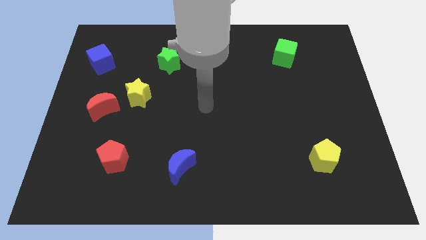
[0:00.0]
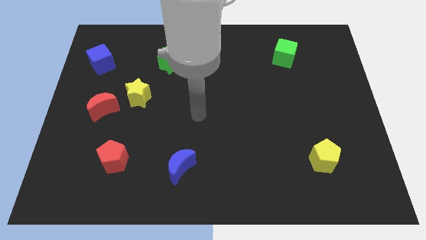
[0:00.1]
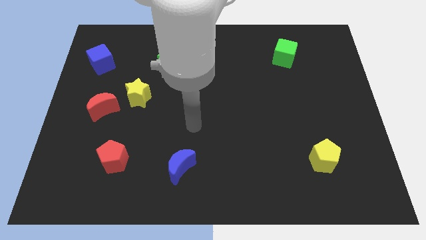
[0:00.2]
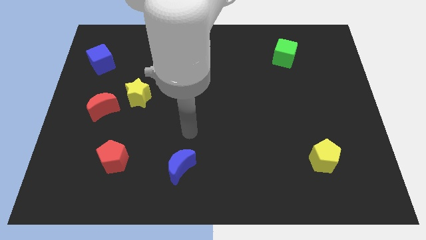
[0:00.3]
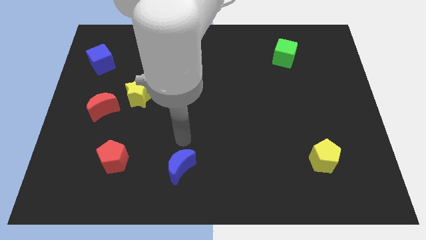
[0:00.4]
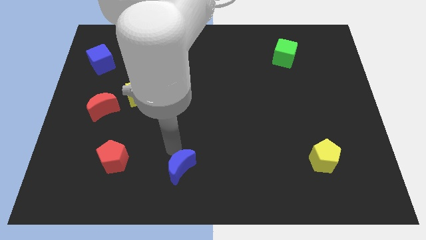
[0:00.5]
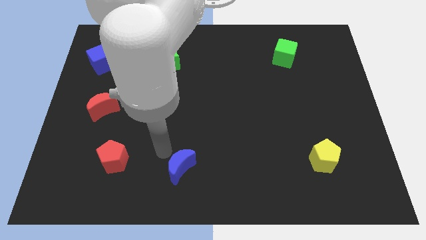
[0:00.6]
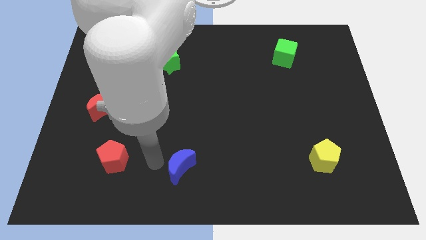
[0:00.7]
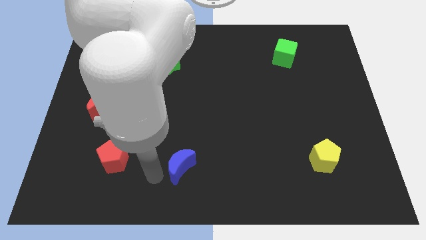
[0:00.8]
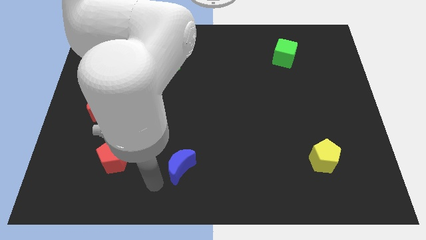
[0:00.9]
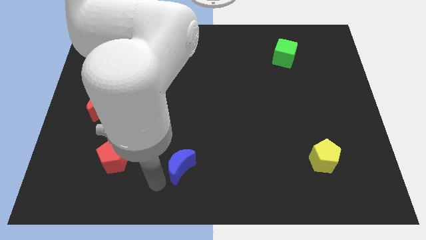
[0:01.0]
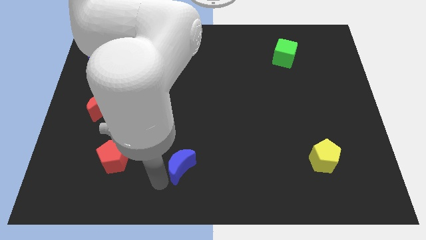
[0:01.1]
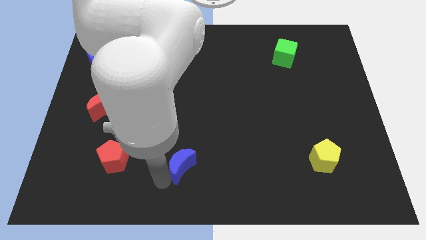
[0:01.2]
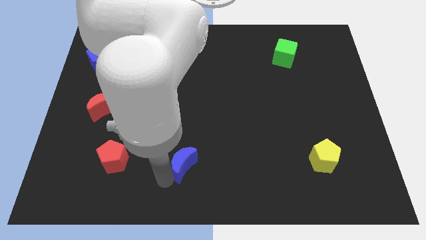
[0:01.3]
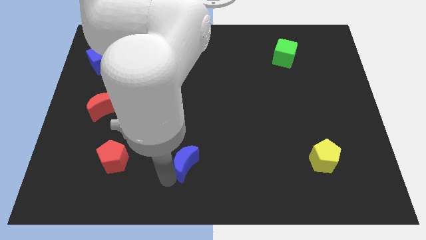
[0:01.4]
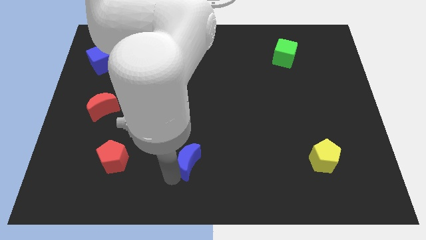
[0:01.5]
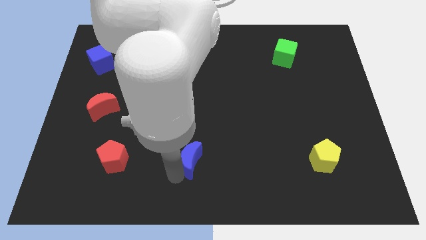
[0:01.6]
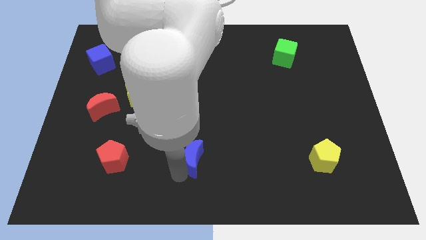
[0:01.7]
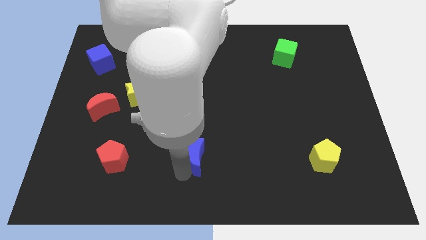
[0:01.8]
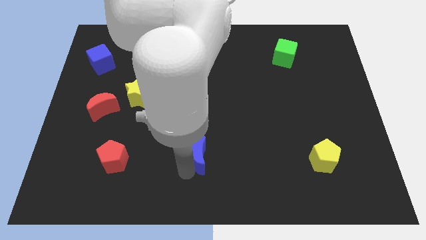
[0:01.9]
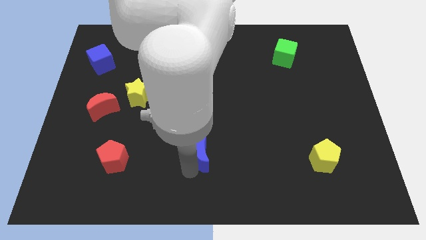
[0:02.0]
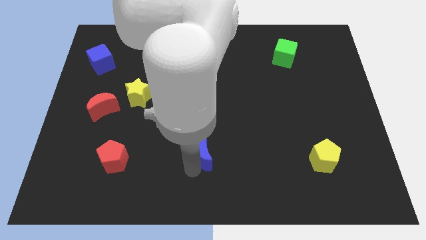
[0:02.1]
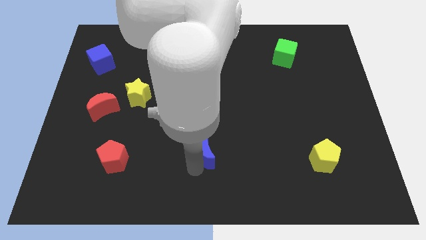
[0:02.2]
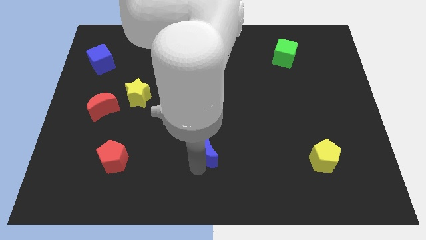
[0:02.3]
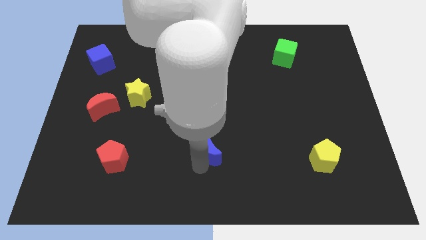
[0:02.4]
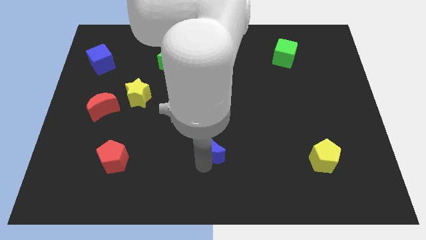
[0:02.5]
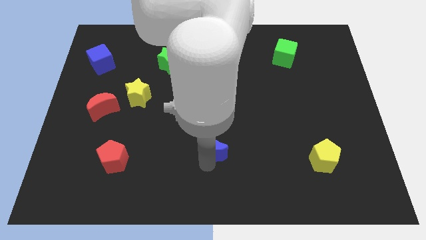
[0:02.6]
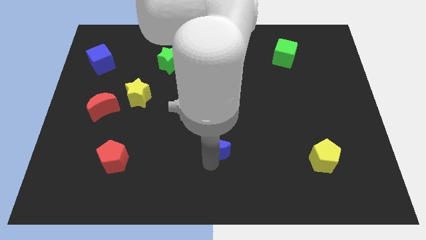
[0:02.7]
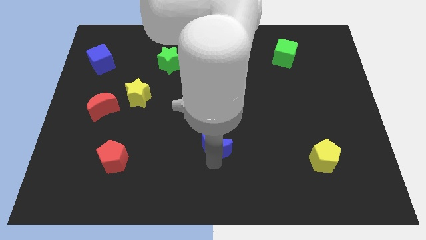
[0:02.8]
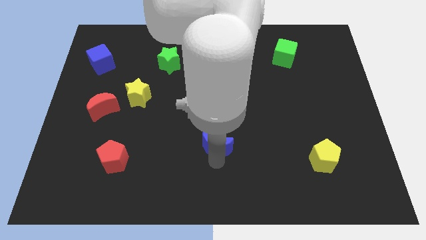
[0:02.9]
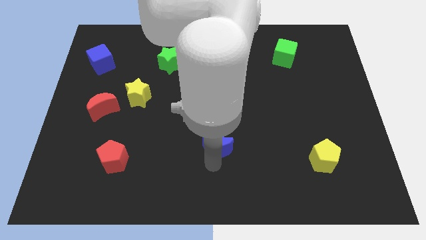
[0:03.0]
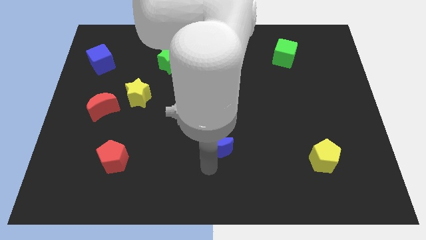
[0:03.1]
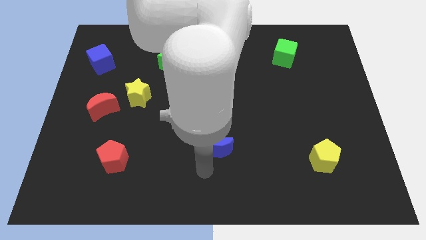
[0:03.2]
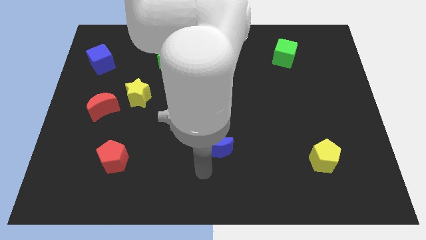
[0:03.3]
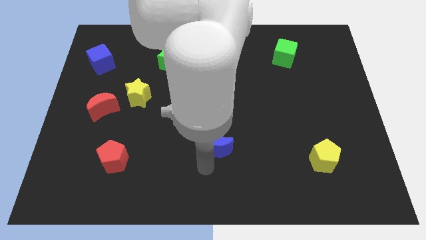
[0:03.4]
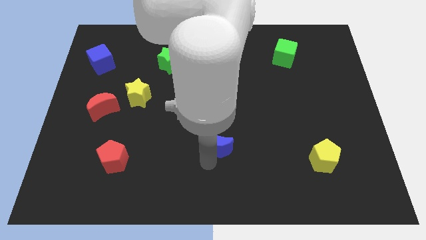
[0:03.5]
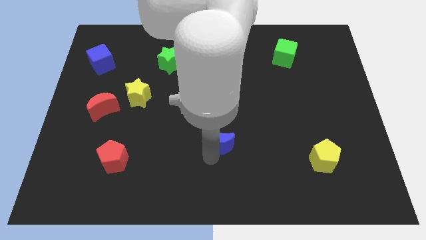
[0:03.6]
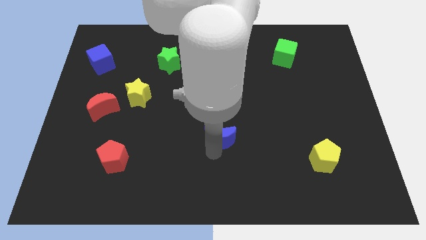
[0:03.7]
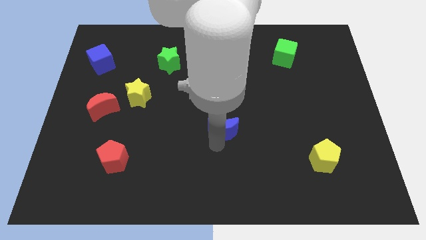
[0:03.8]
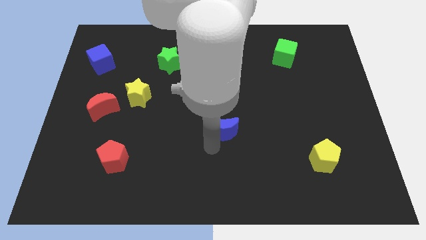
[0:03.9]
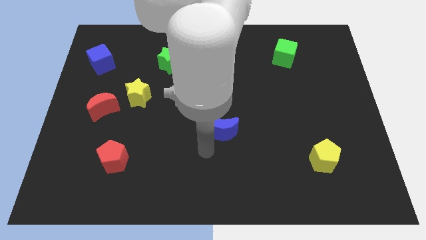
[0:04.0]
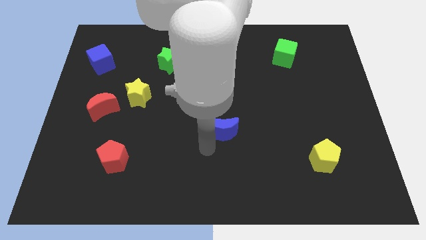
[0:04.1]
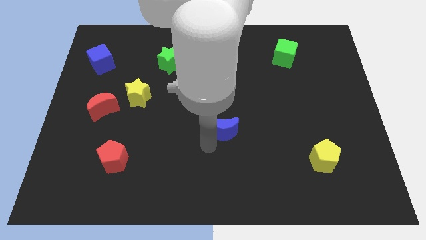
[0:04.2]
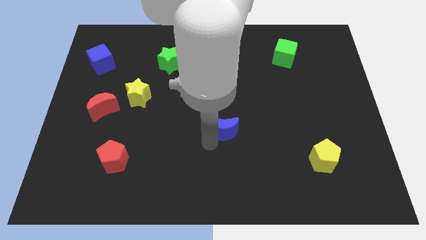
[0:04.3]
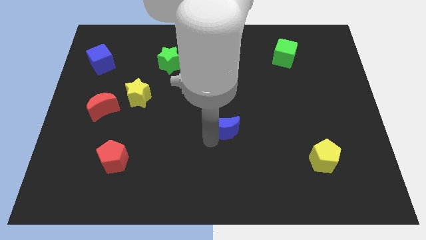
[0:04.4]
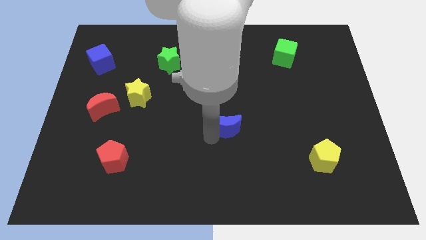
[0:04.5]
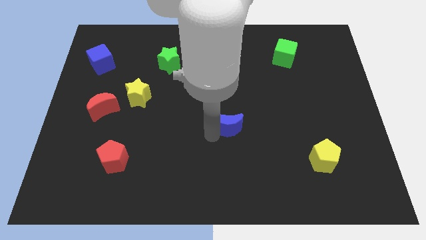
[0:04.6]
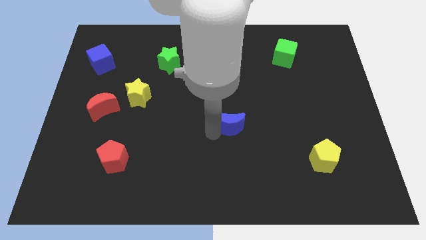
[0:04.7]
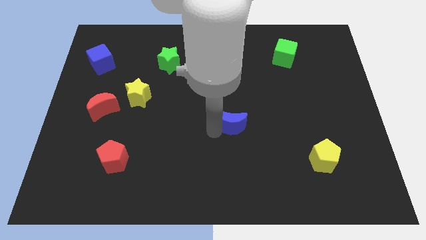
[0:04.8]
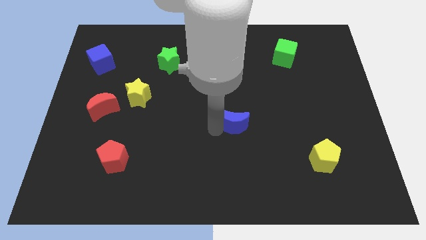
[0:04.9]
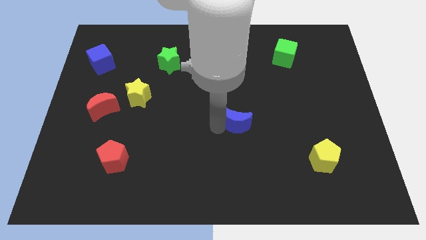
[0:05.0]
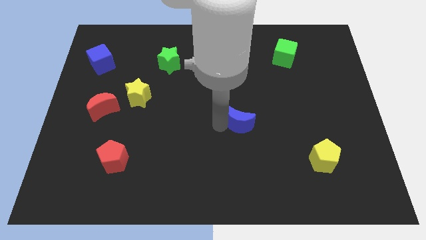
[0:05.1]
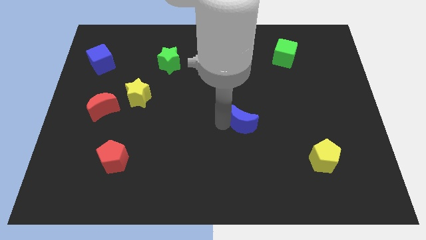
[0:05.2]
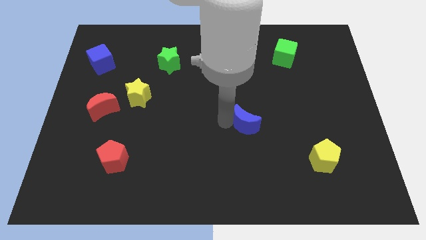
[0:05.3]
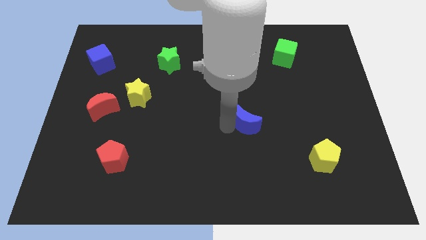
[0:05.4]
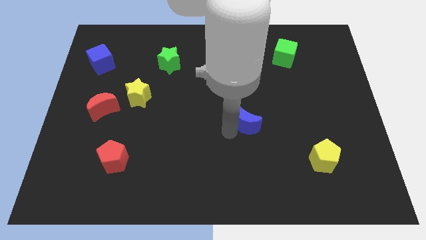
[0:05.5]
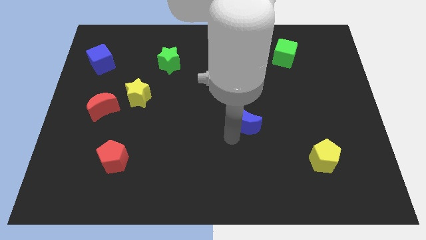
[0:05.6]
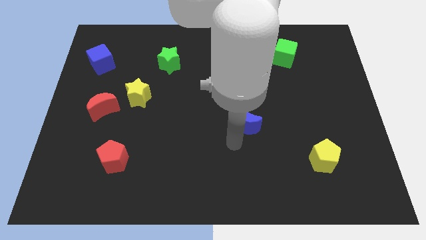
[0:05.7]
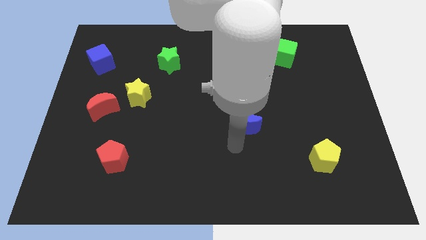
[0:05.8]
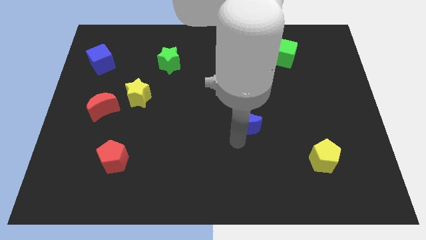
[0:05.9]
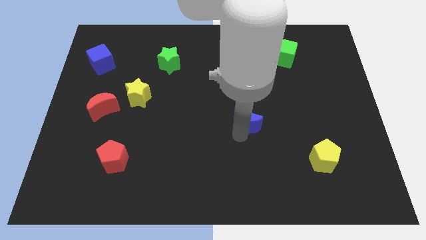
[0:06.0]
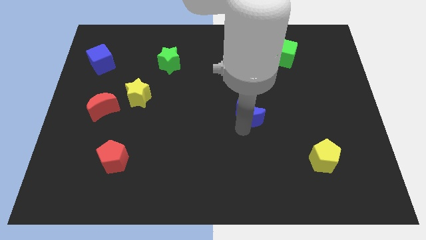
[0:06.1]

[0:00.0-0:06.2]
push the blue moon upwards and right diagonally

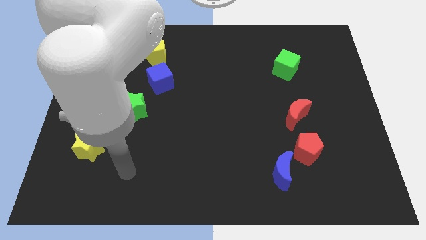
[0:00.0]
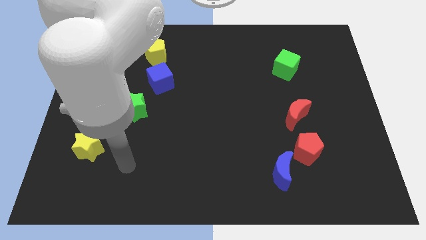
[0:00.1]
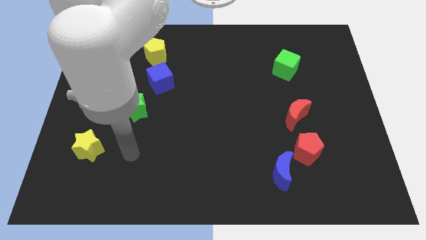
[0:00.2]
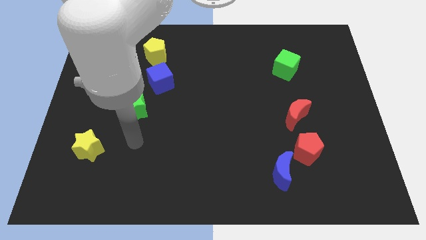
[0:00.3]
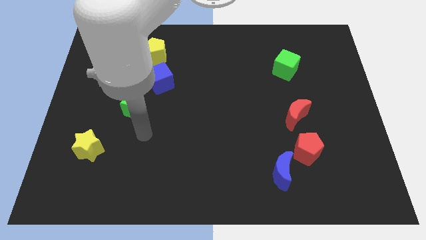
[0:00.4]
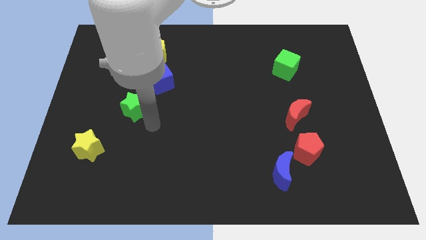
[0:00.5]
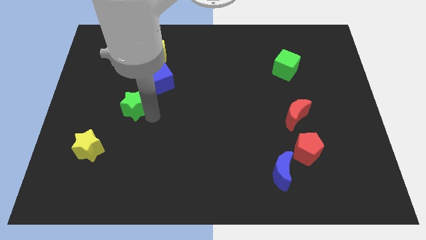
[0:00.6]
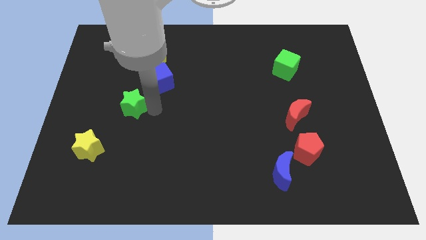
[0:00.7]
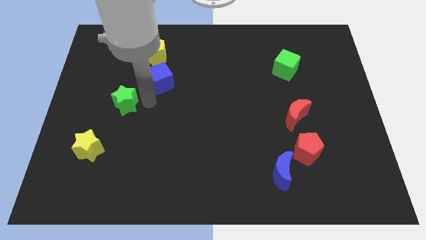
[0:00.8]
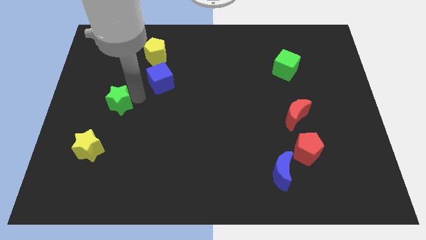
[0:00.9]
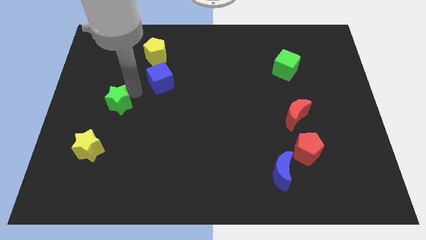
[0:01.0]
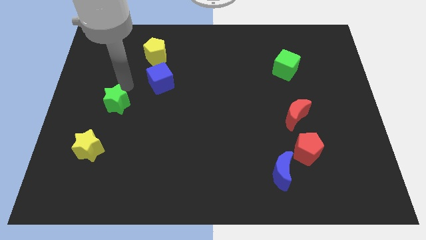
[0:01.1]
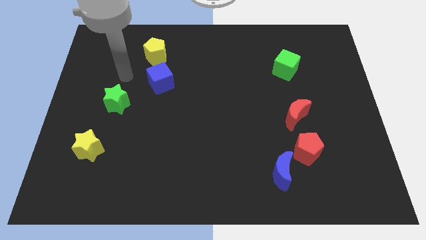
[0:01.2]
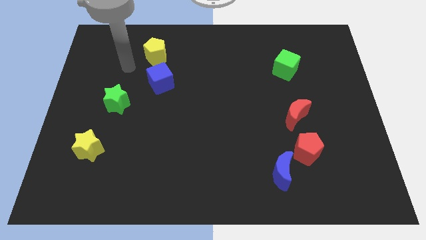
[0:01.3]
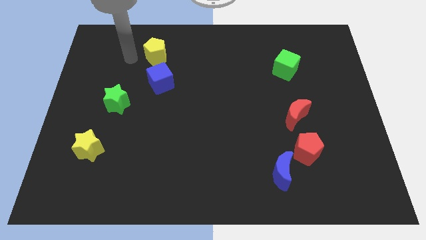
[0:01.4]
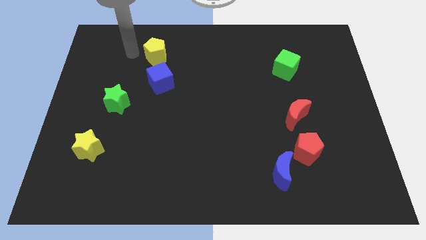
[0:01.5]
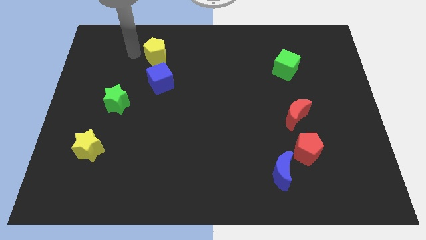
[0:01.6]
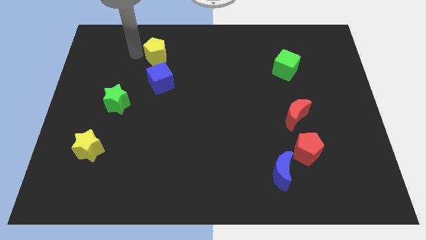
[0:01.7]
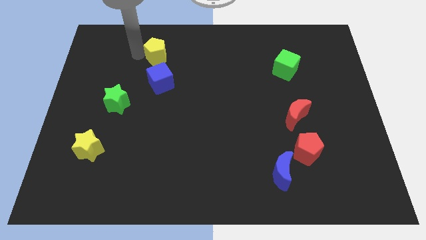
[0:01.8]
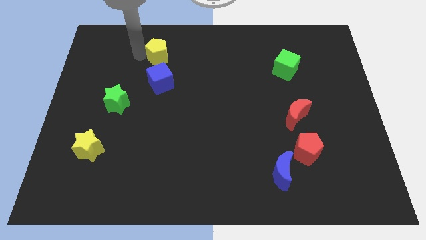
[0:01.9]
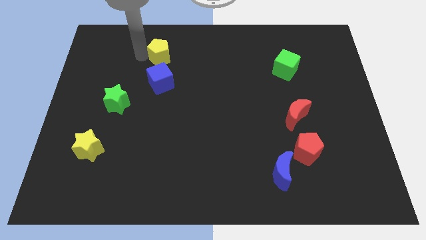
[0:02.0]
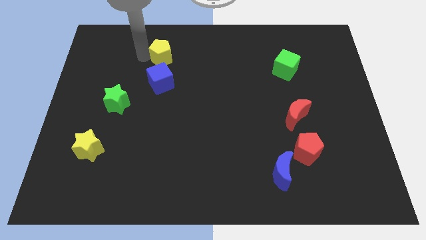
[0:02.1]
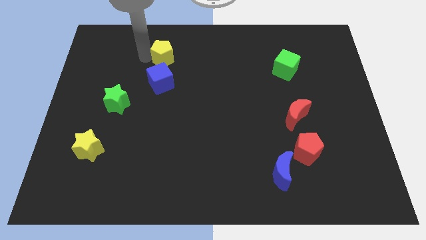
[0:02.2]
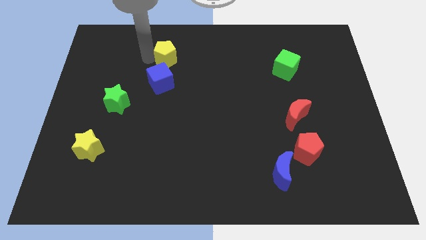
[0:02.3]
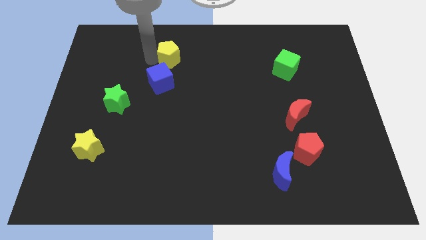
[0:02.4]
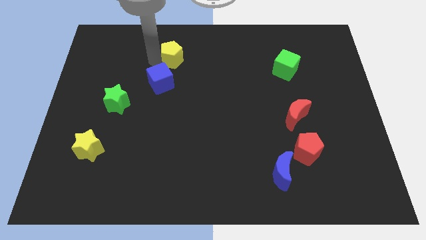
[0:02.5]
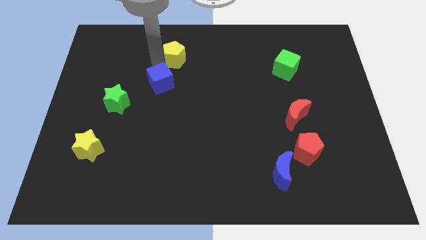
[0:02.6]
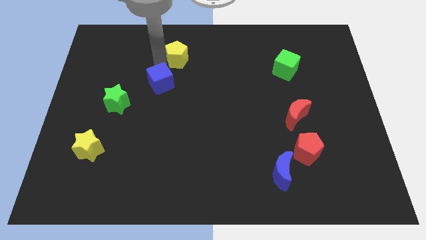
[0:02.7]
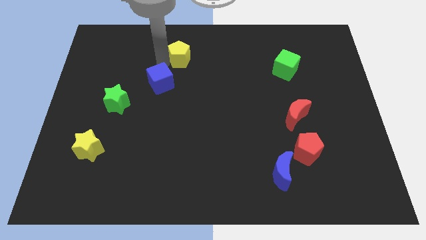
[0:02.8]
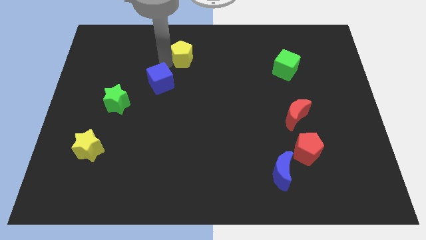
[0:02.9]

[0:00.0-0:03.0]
slightly slide the yellow pentagon to the right
